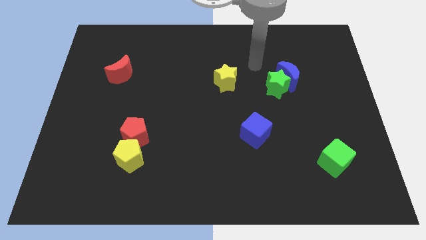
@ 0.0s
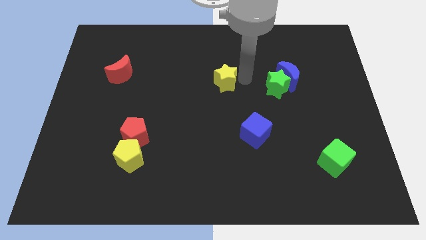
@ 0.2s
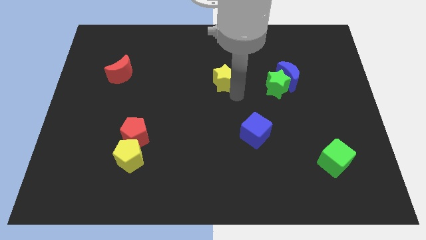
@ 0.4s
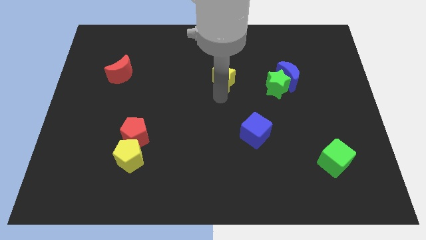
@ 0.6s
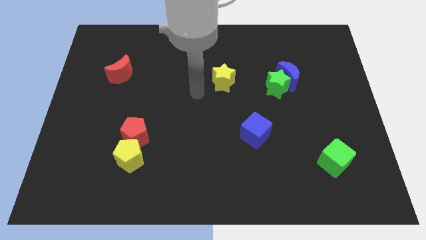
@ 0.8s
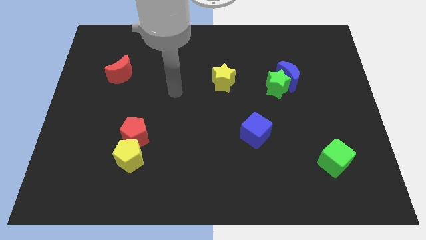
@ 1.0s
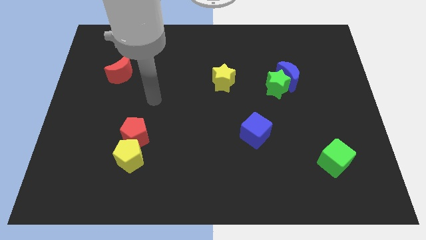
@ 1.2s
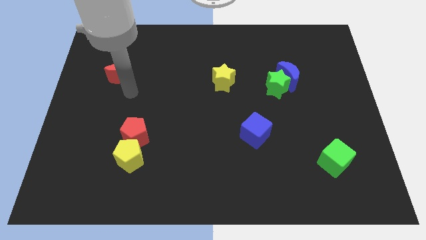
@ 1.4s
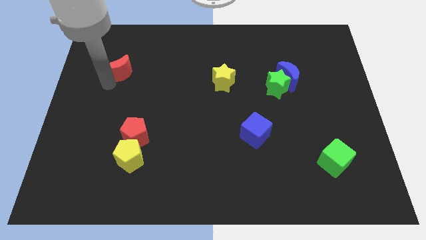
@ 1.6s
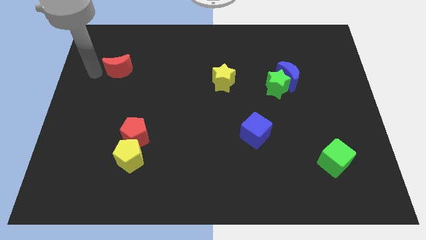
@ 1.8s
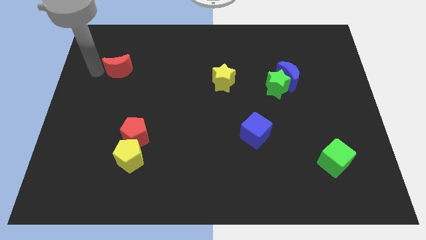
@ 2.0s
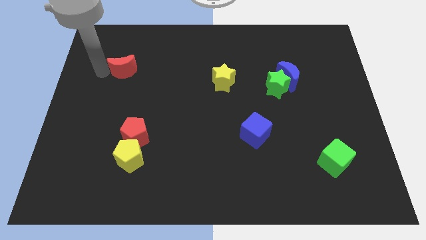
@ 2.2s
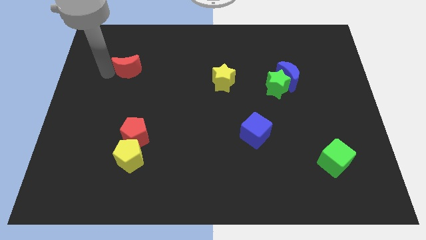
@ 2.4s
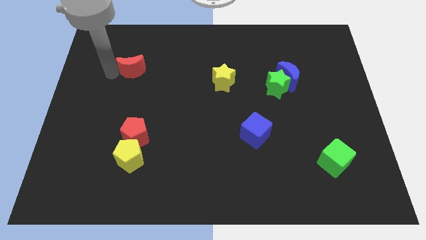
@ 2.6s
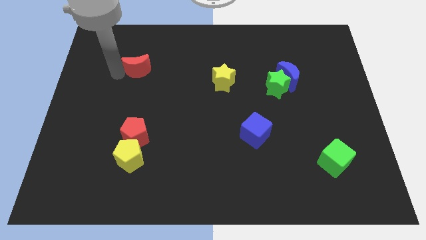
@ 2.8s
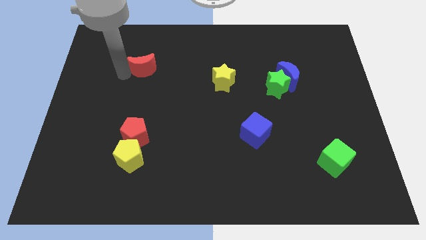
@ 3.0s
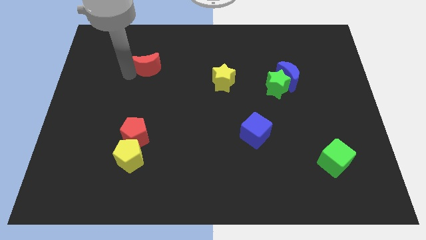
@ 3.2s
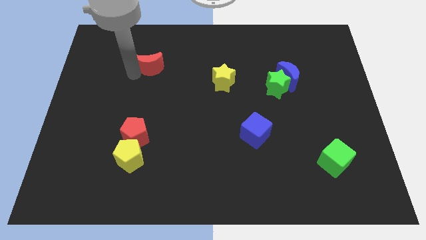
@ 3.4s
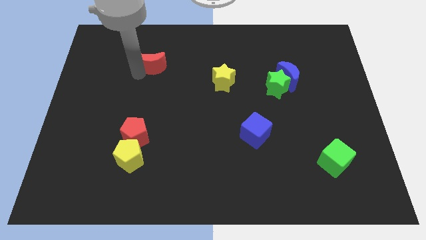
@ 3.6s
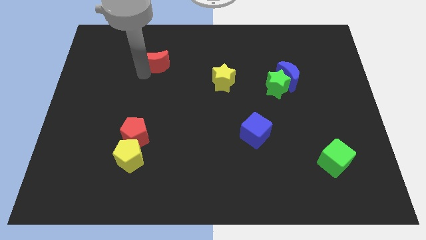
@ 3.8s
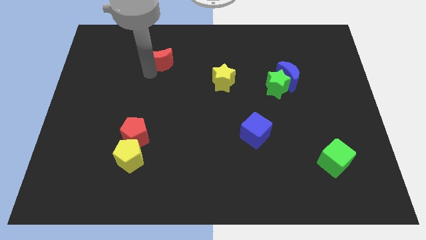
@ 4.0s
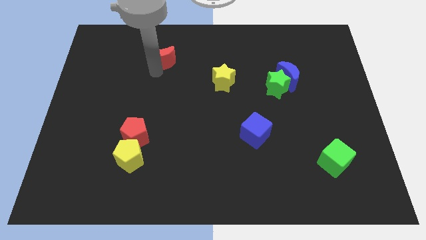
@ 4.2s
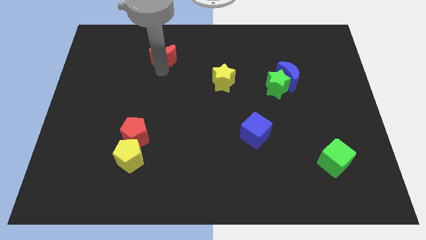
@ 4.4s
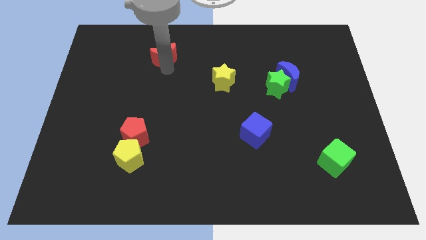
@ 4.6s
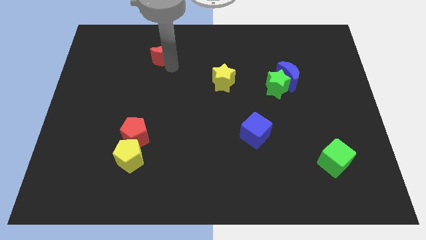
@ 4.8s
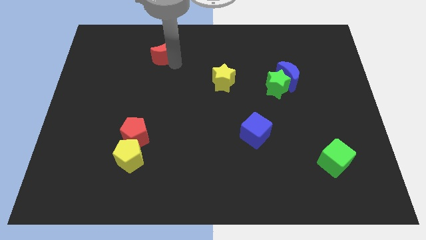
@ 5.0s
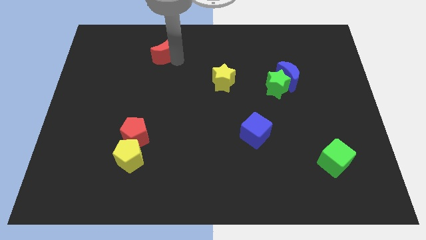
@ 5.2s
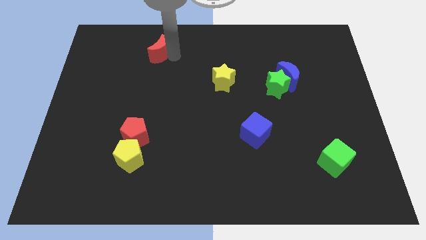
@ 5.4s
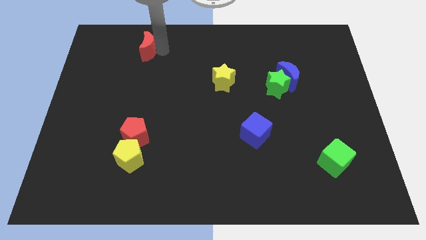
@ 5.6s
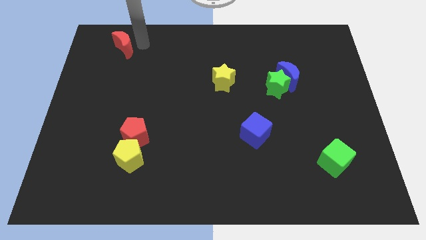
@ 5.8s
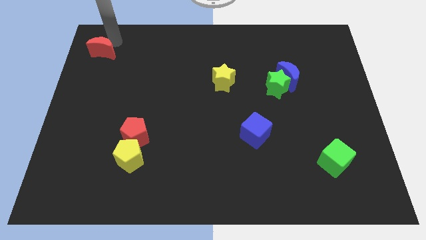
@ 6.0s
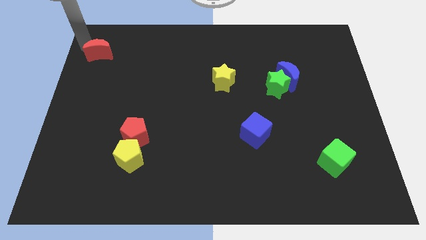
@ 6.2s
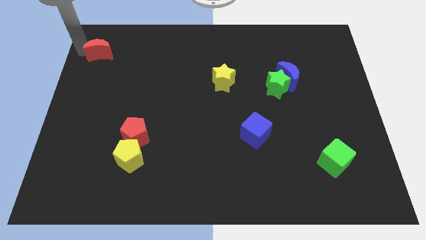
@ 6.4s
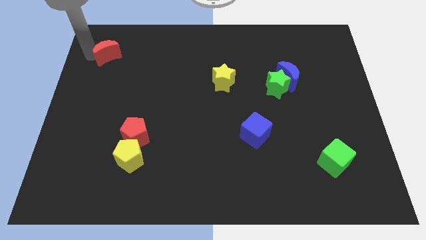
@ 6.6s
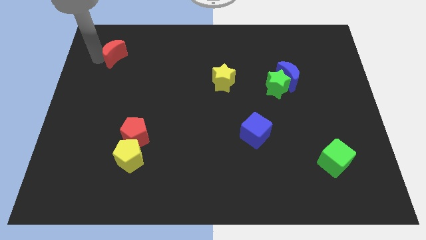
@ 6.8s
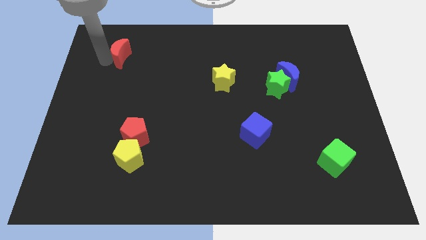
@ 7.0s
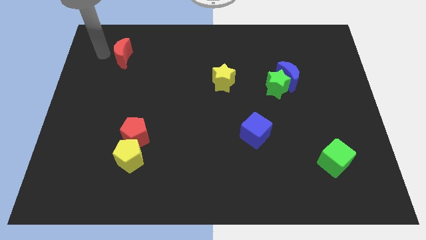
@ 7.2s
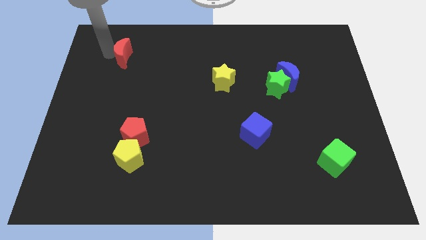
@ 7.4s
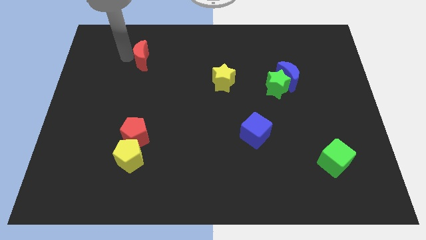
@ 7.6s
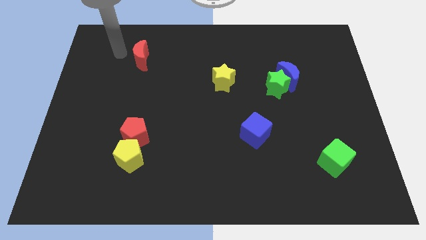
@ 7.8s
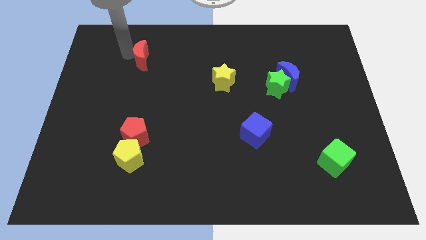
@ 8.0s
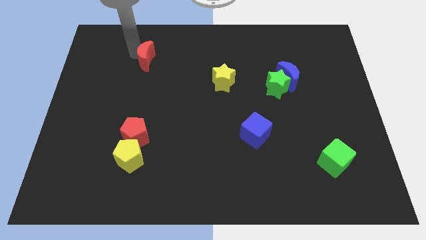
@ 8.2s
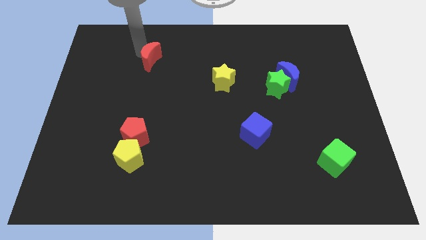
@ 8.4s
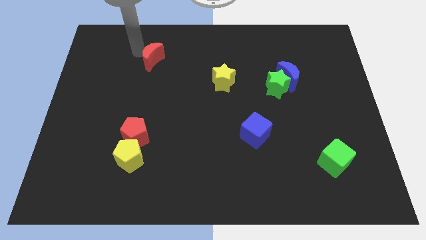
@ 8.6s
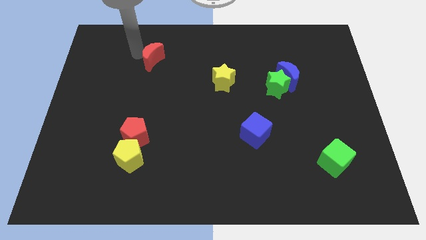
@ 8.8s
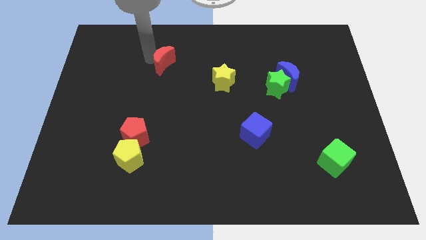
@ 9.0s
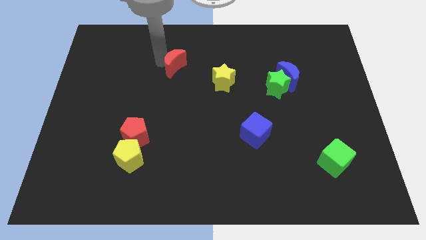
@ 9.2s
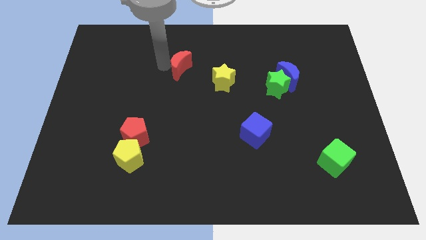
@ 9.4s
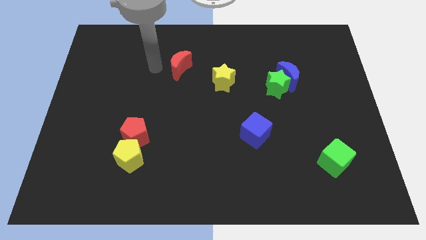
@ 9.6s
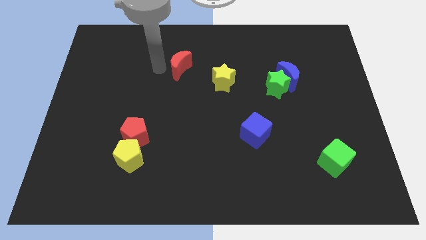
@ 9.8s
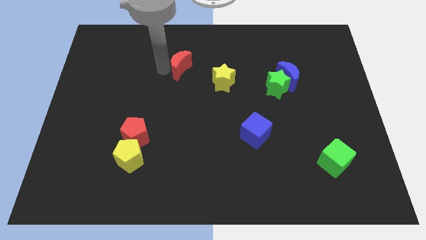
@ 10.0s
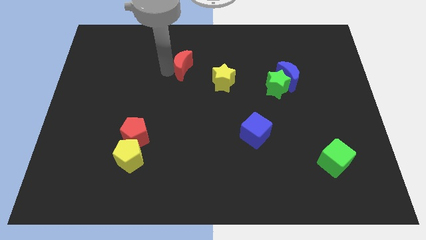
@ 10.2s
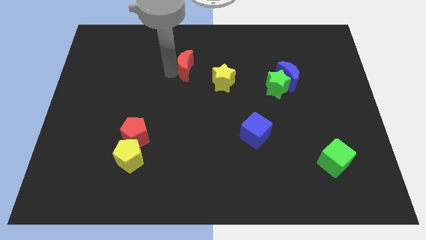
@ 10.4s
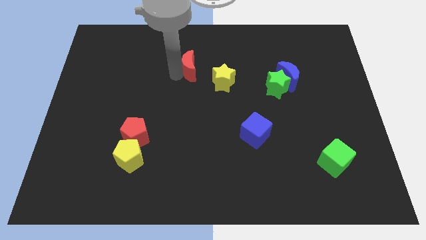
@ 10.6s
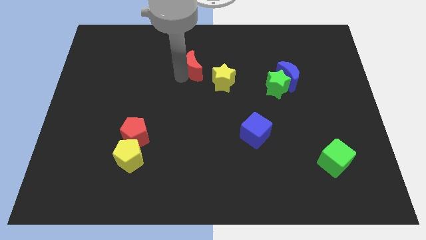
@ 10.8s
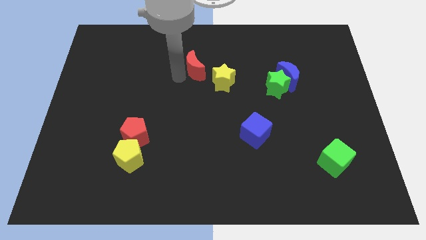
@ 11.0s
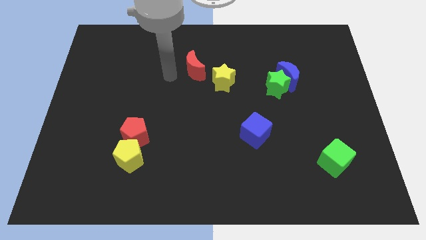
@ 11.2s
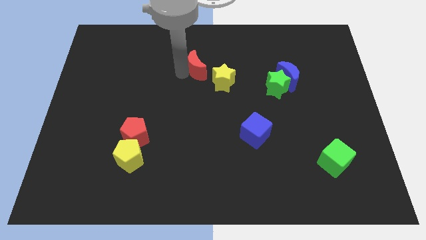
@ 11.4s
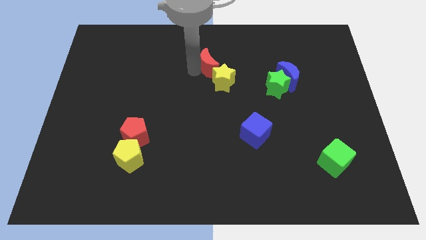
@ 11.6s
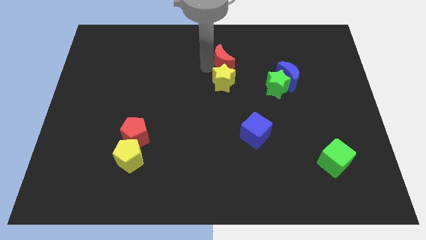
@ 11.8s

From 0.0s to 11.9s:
slide the red moon to the top right side of the yellow star

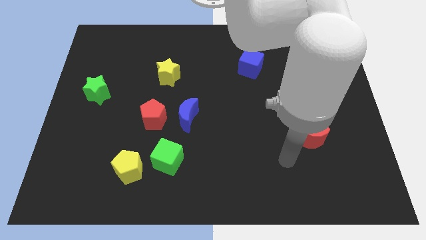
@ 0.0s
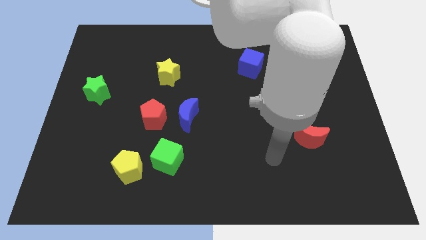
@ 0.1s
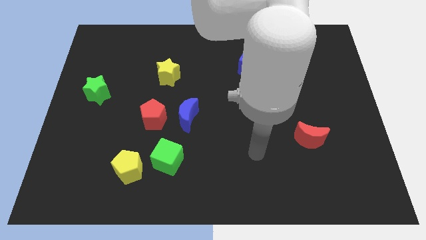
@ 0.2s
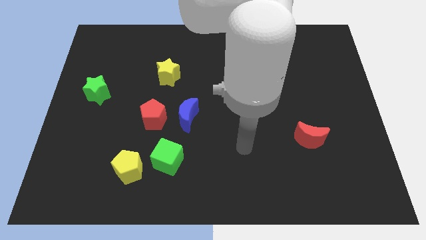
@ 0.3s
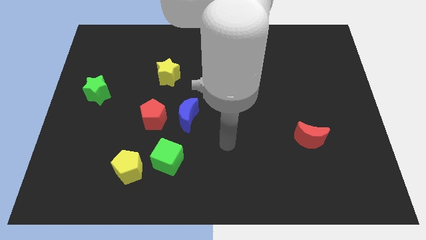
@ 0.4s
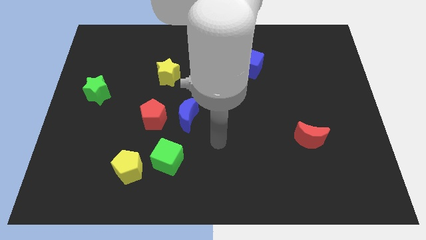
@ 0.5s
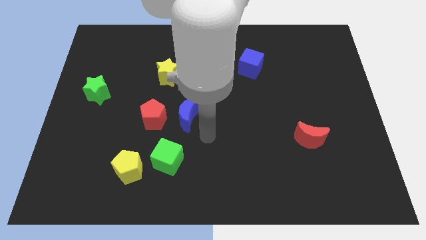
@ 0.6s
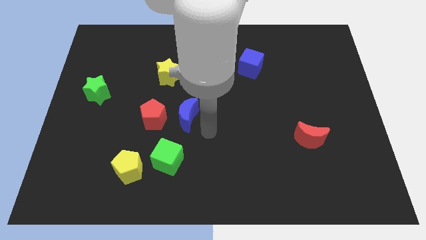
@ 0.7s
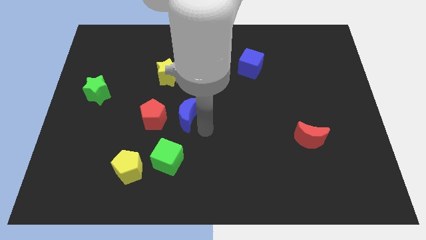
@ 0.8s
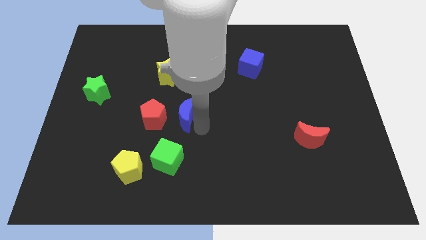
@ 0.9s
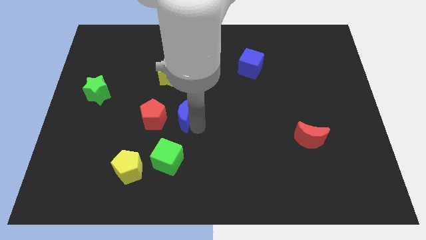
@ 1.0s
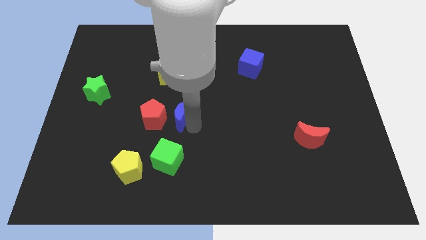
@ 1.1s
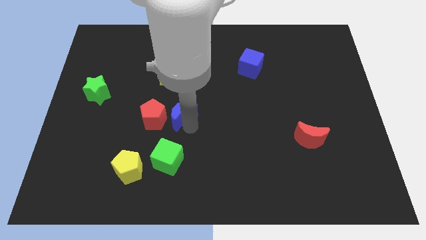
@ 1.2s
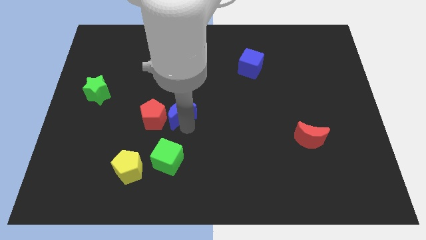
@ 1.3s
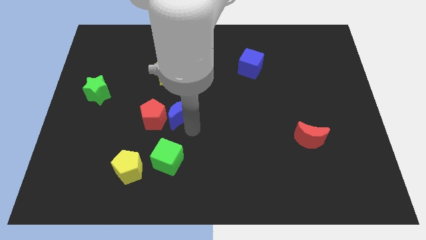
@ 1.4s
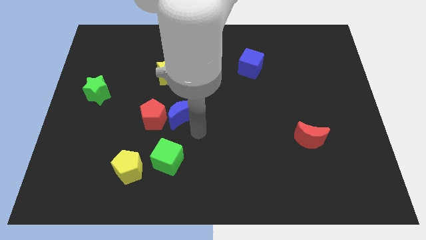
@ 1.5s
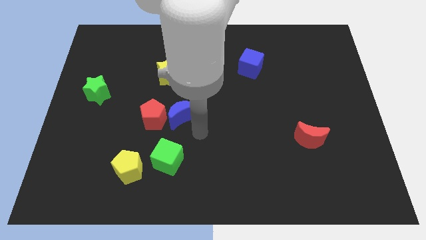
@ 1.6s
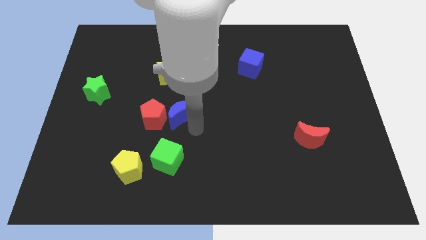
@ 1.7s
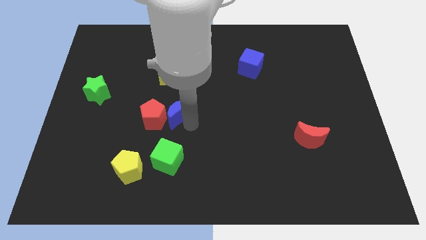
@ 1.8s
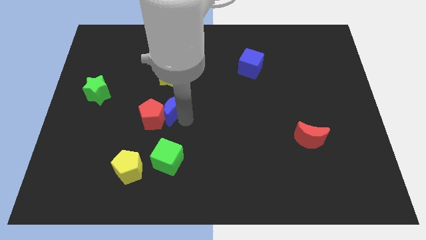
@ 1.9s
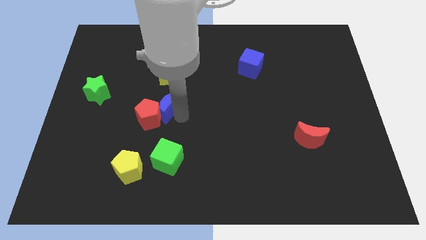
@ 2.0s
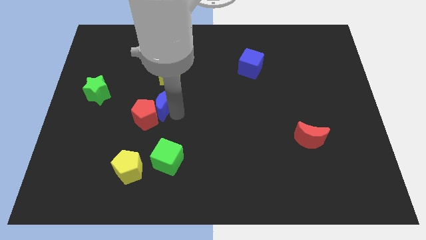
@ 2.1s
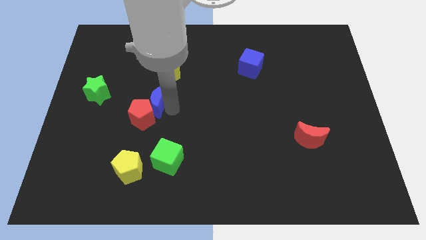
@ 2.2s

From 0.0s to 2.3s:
put the blue moon right of the green star
